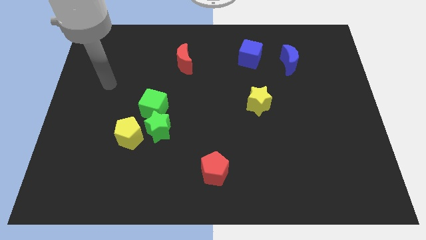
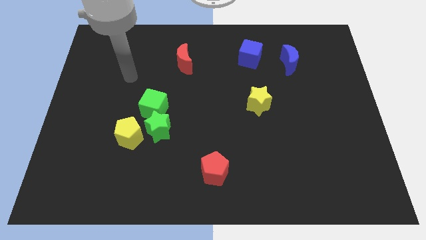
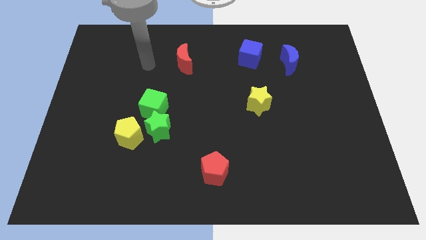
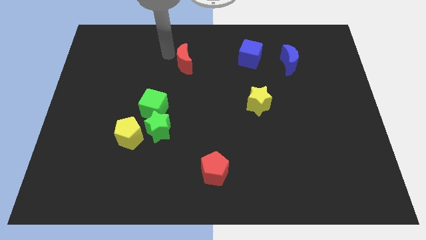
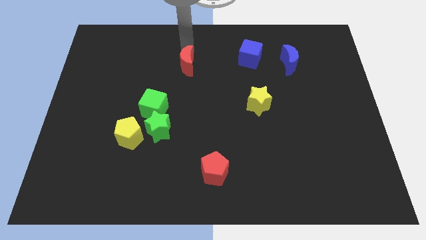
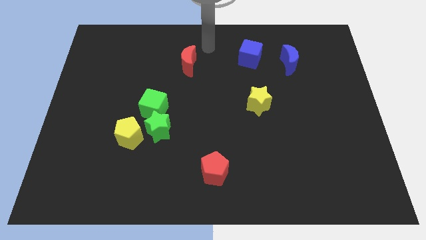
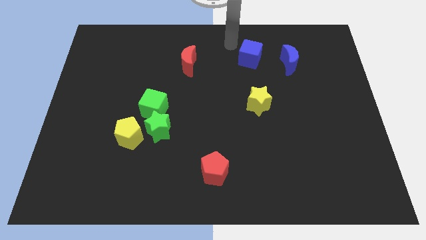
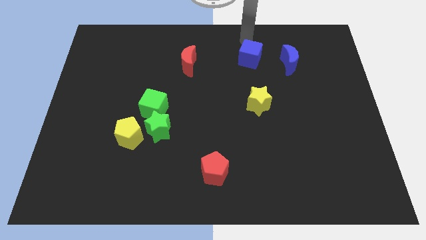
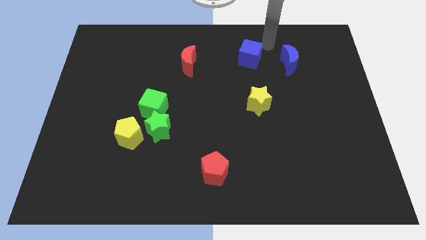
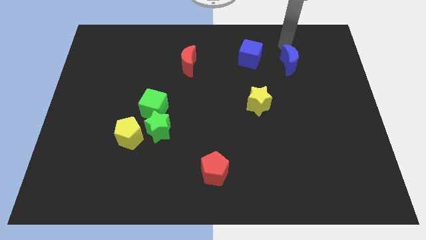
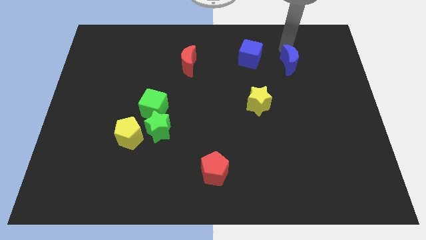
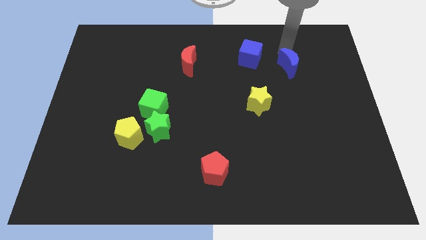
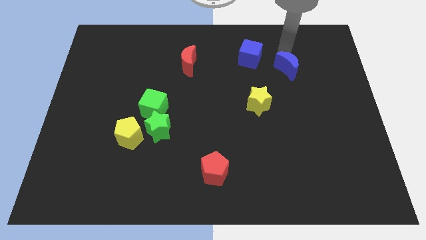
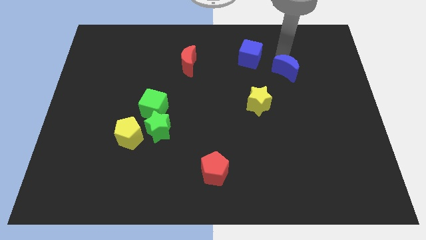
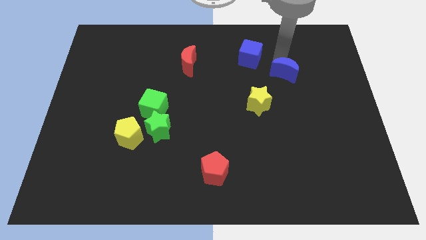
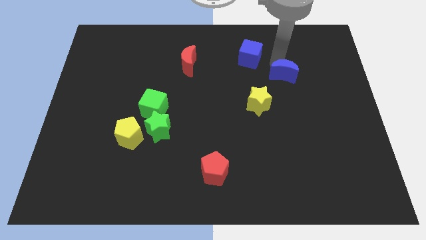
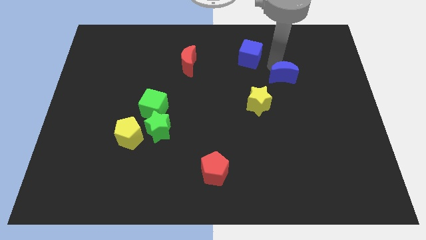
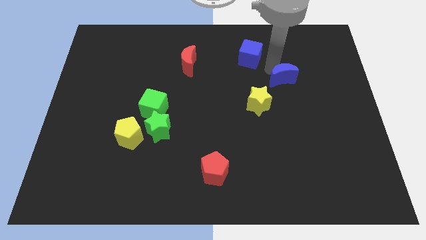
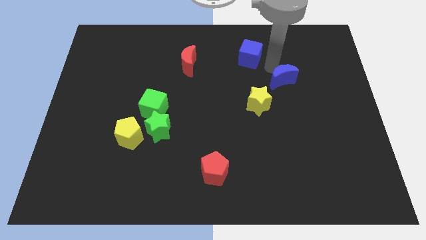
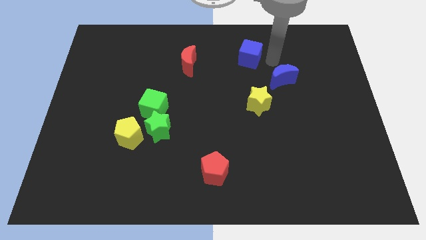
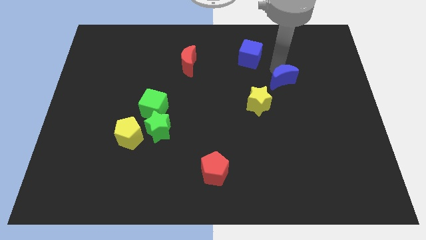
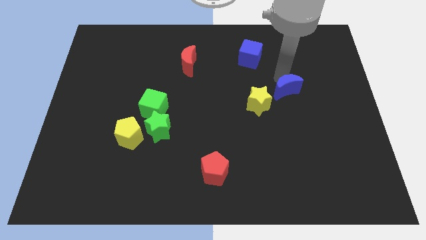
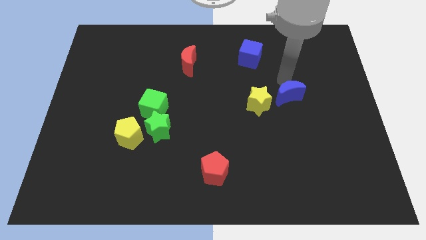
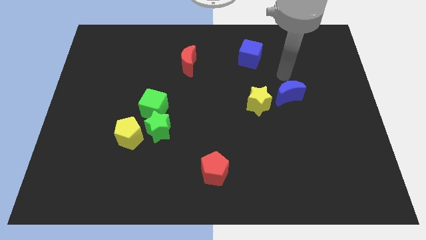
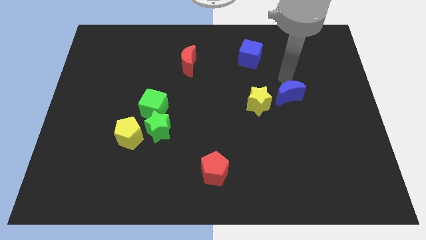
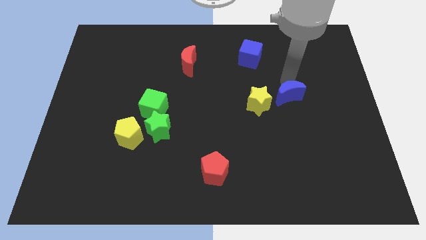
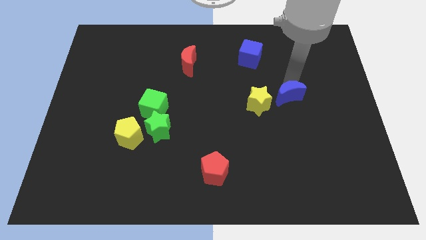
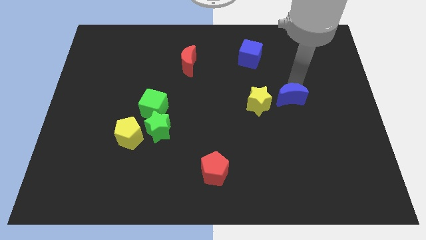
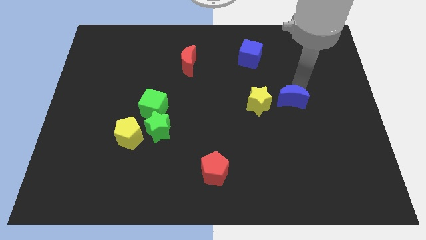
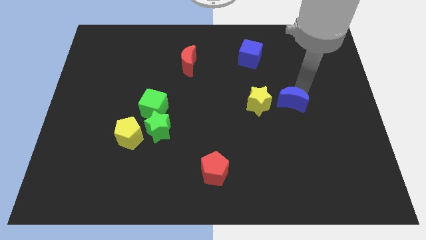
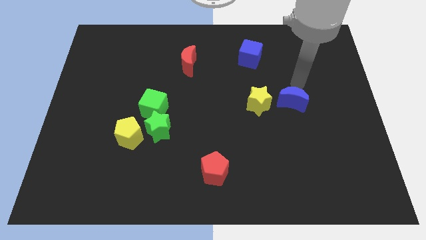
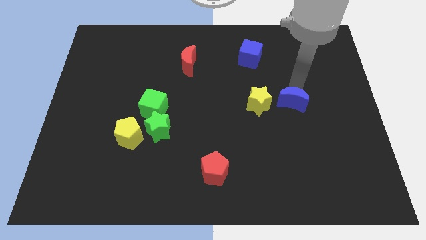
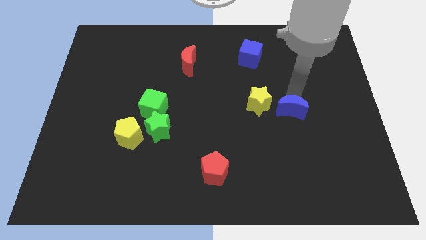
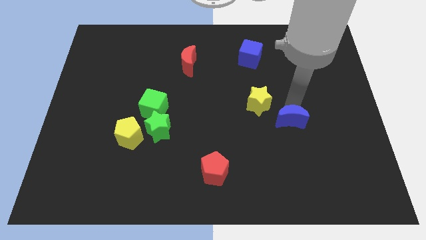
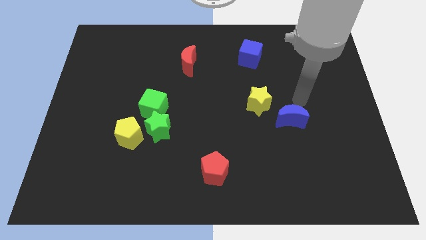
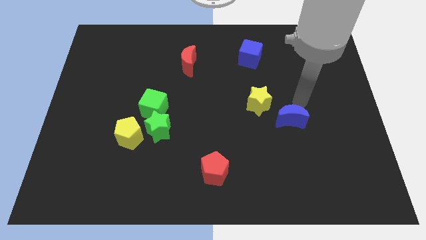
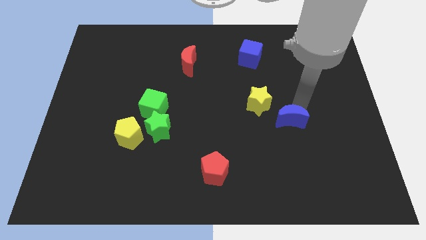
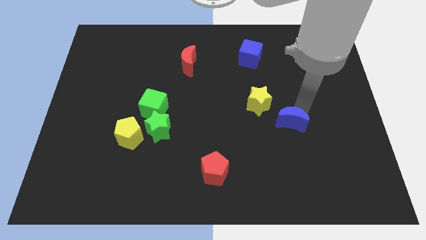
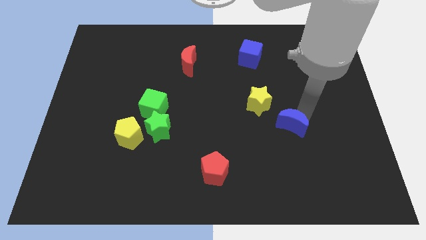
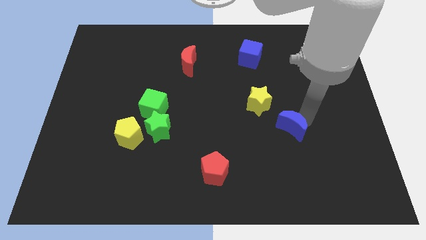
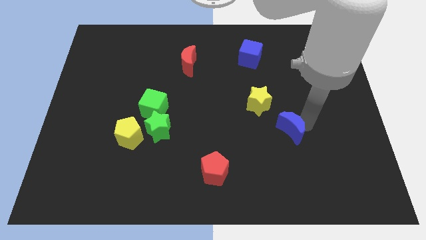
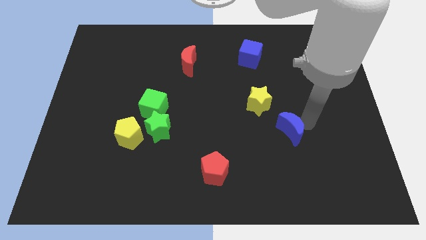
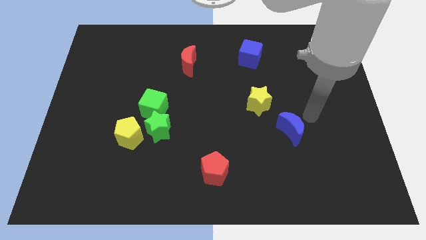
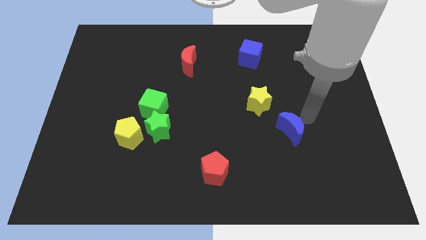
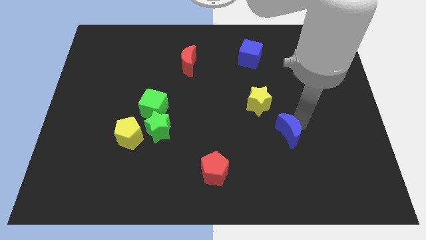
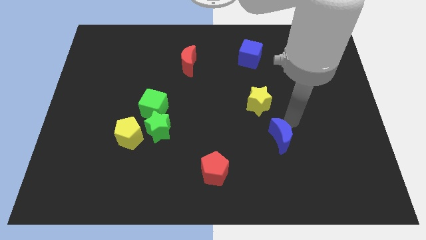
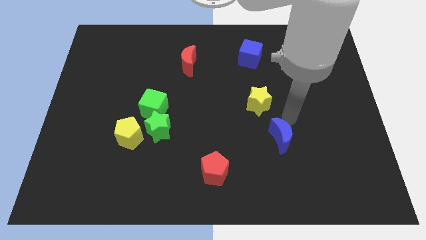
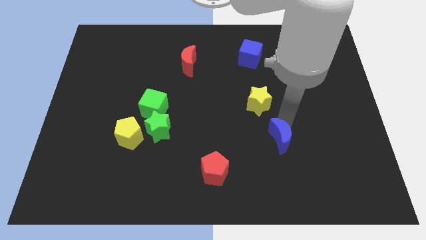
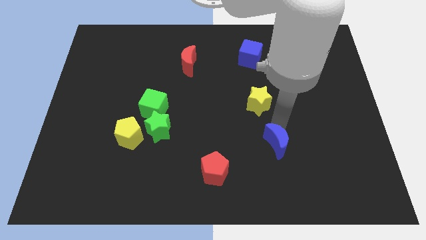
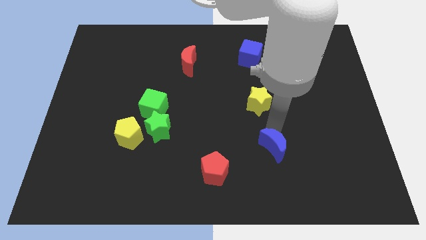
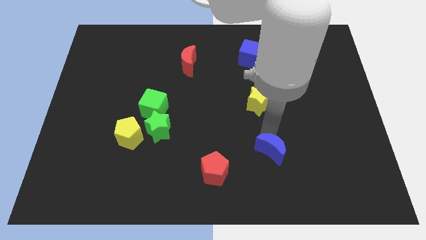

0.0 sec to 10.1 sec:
slide the blue moon right of the red pentagon

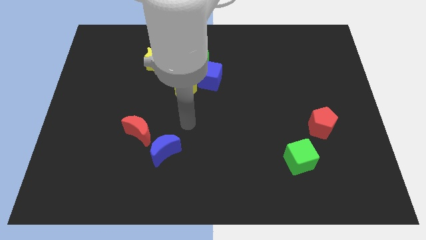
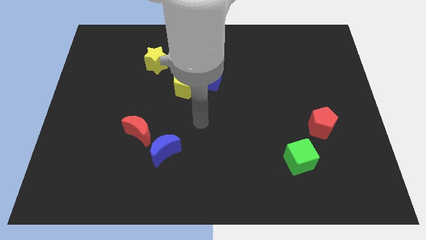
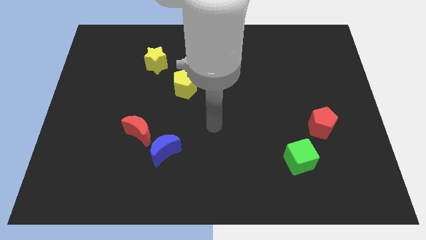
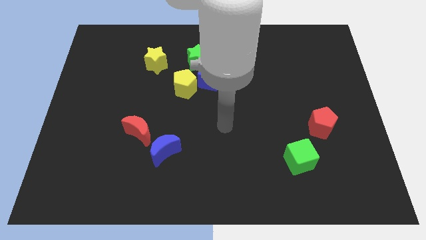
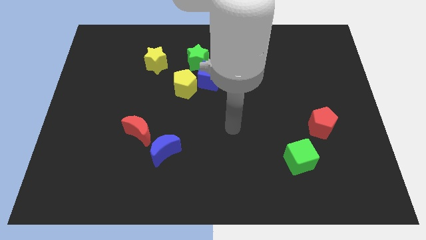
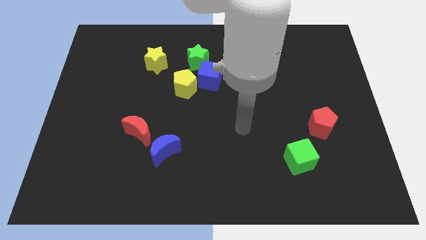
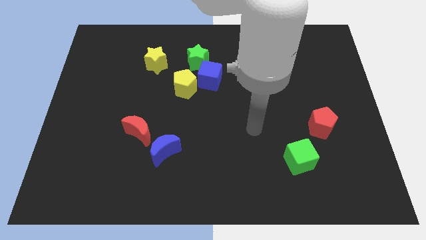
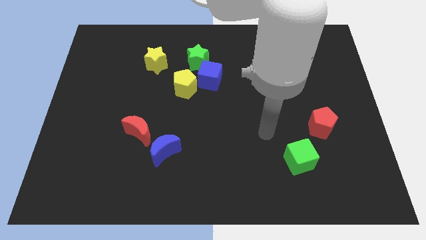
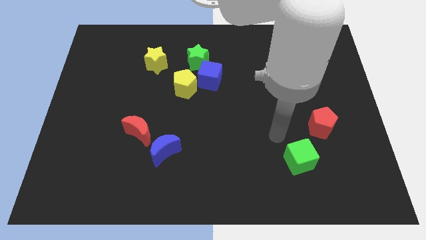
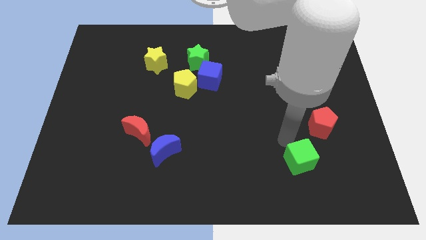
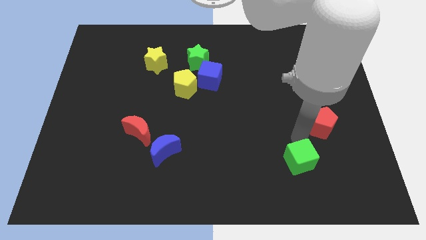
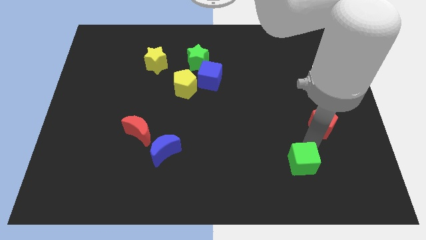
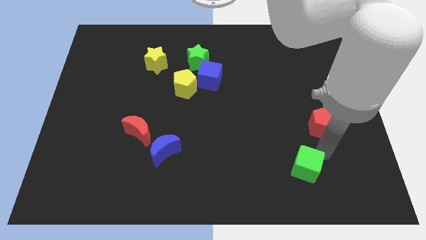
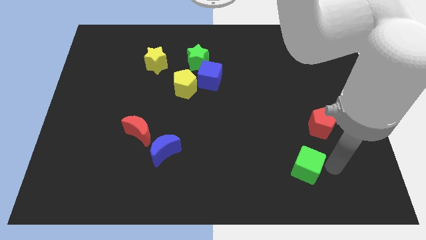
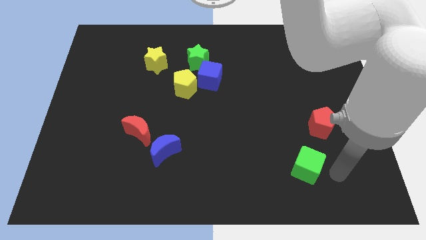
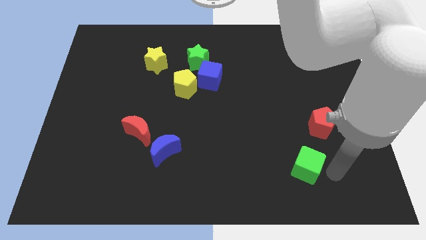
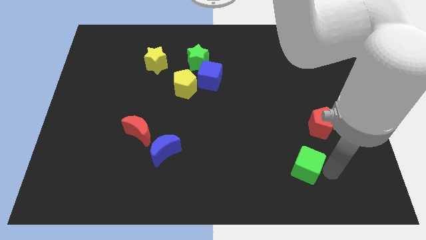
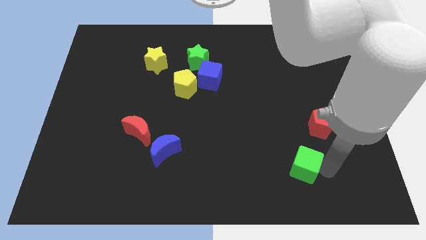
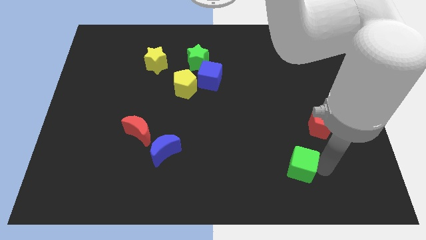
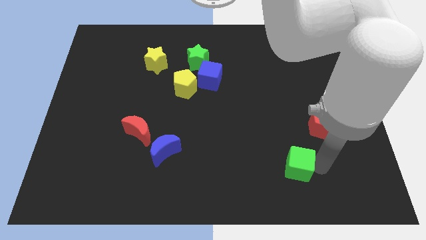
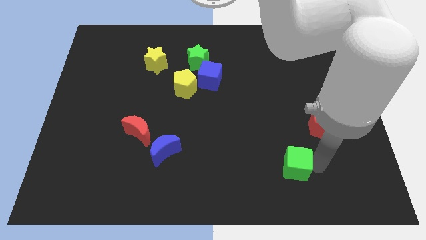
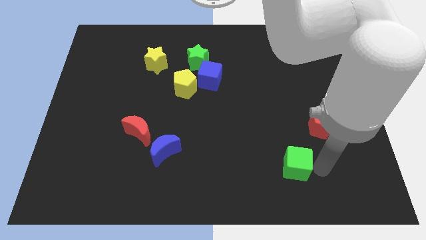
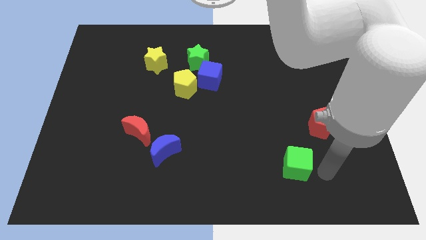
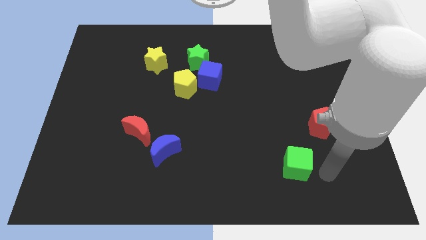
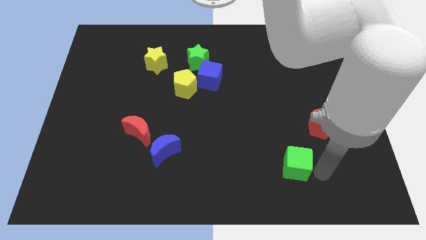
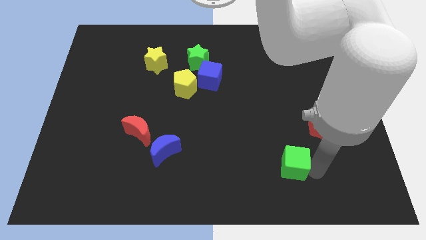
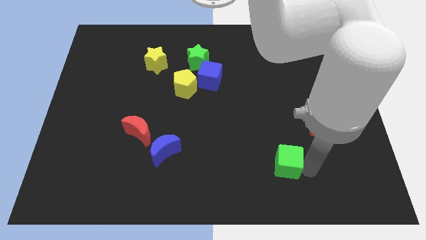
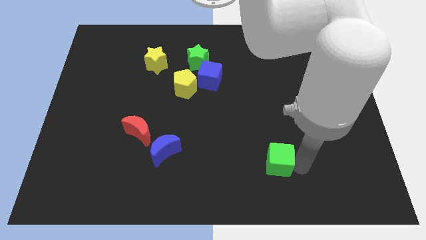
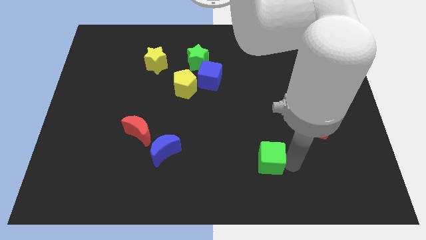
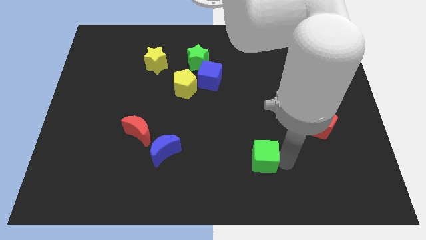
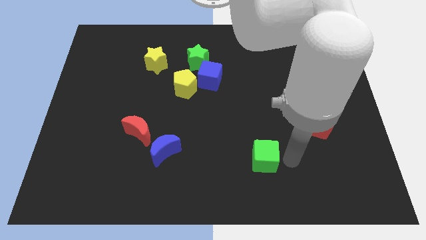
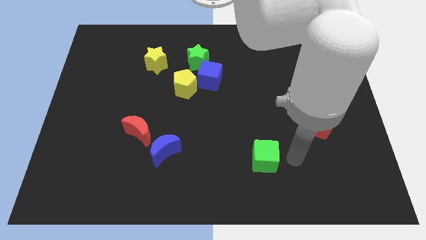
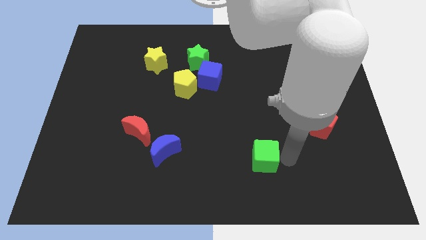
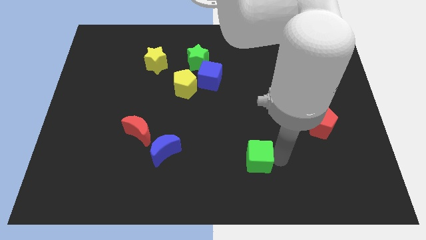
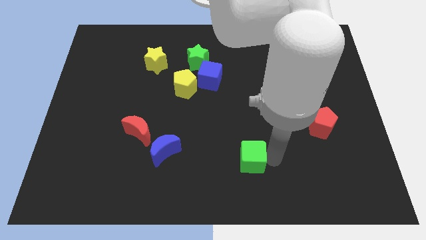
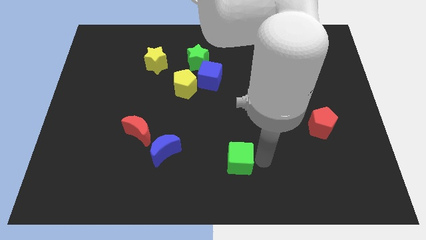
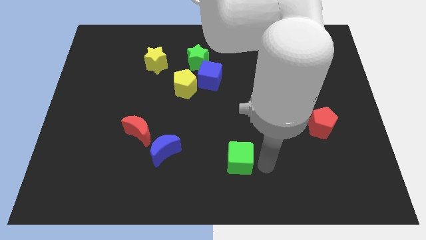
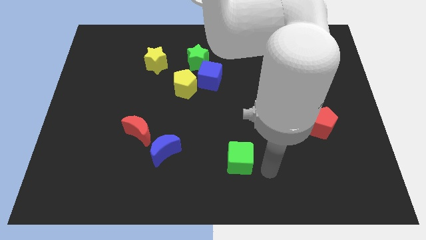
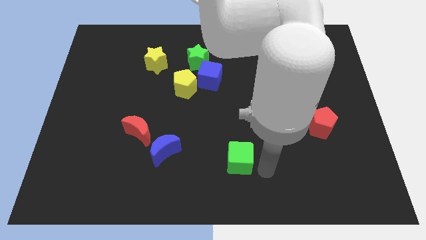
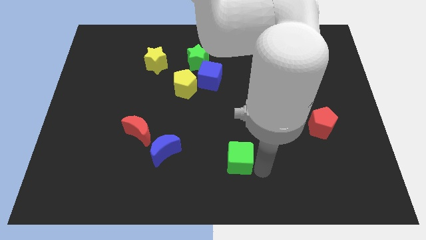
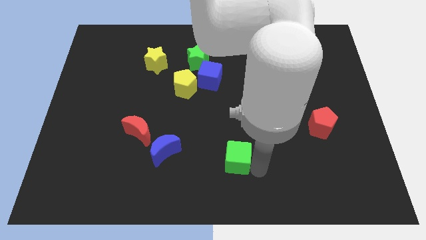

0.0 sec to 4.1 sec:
slide the green cube to the right side of the blue moon
